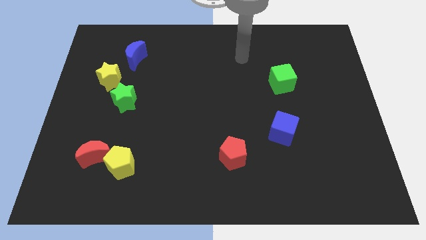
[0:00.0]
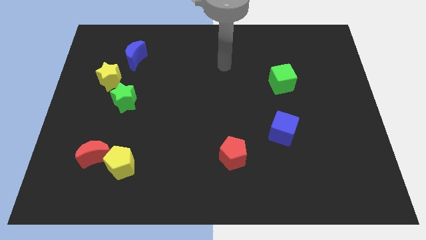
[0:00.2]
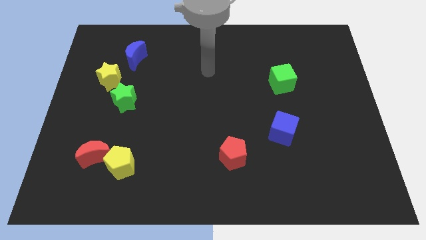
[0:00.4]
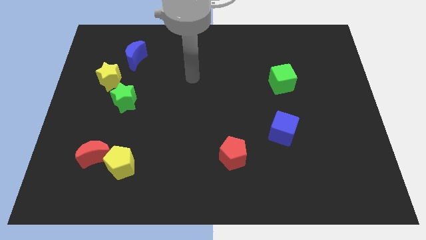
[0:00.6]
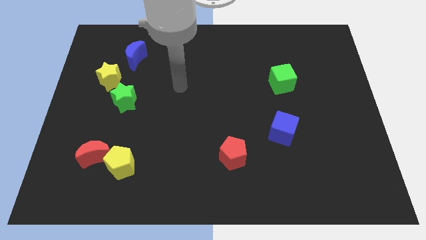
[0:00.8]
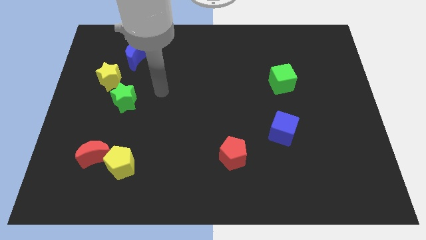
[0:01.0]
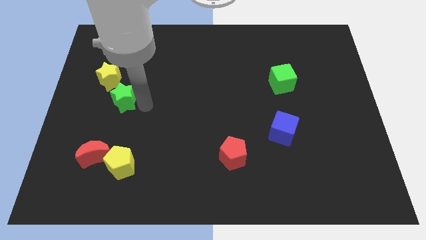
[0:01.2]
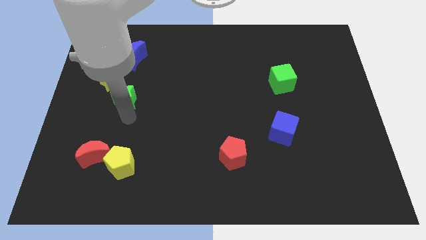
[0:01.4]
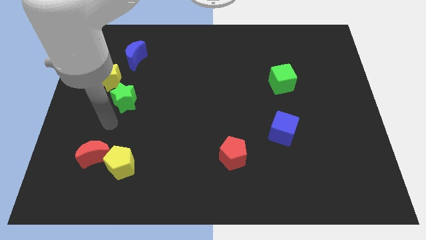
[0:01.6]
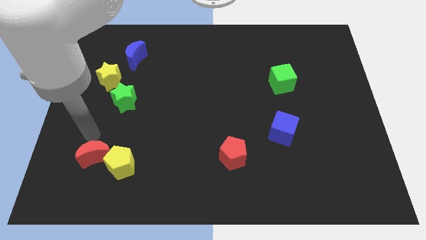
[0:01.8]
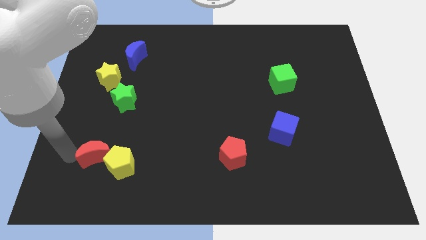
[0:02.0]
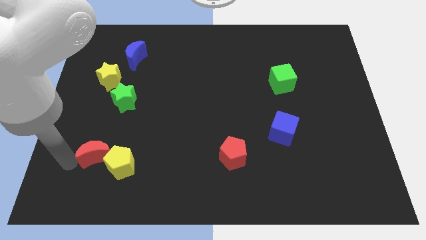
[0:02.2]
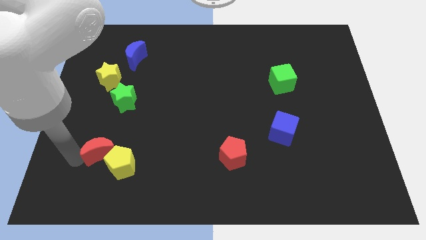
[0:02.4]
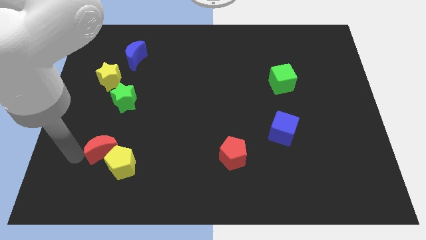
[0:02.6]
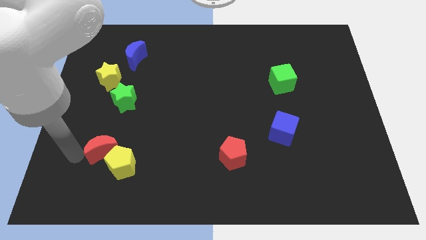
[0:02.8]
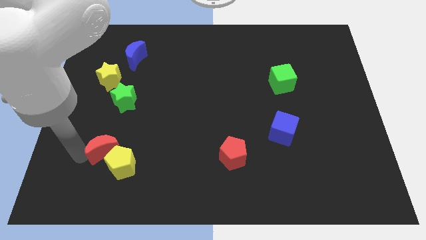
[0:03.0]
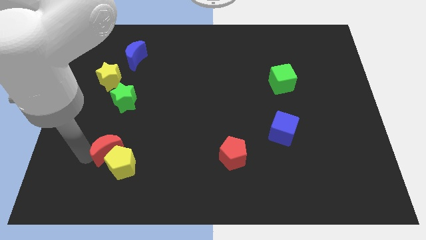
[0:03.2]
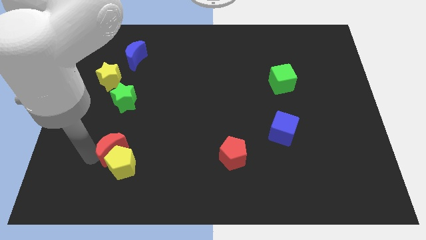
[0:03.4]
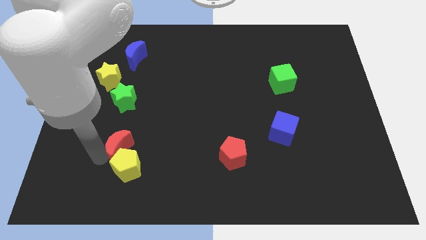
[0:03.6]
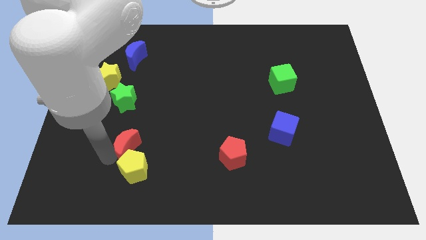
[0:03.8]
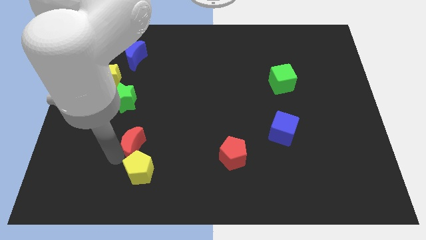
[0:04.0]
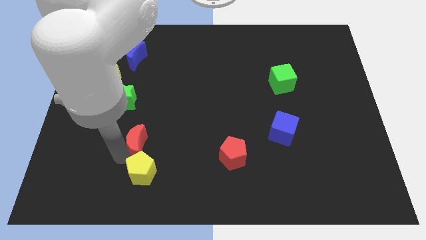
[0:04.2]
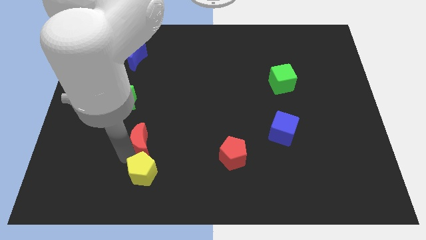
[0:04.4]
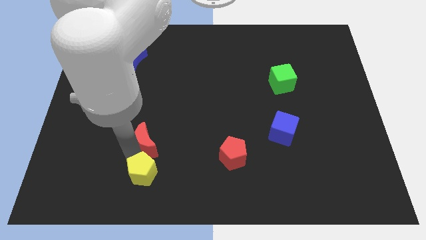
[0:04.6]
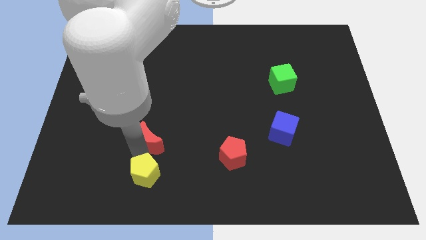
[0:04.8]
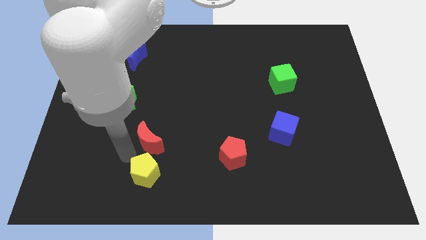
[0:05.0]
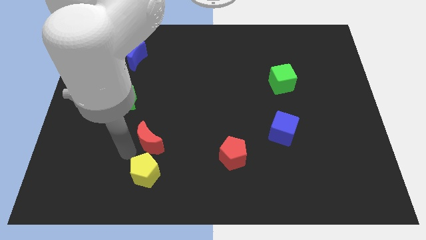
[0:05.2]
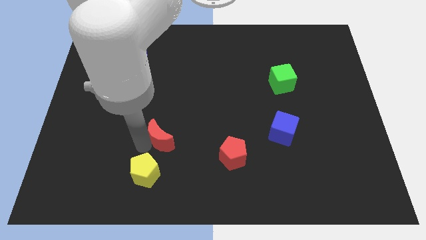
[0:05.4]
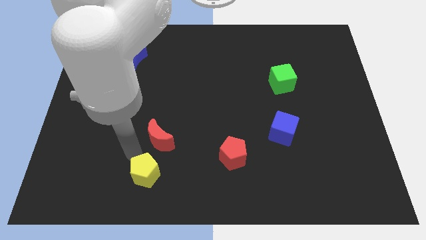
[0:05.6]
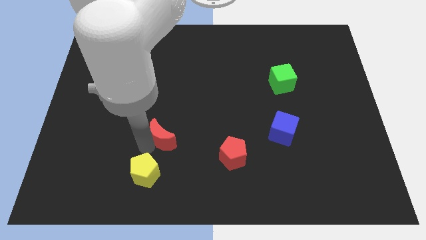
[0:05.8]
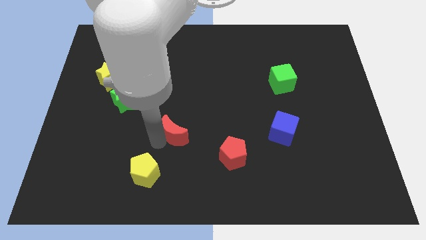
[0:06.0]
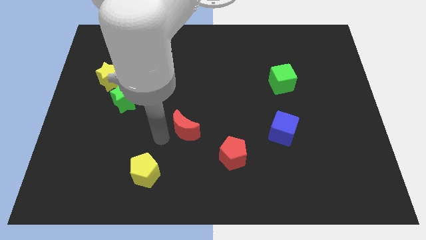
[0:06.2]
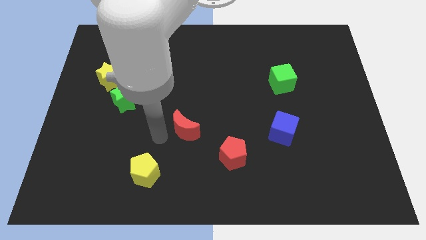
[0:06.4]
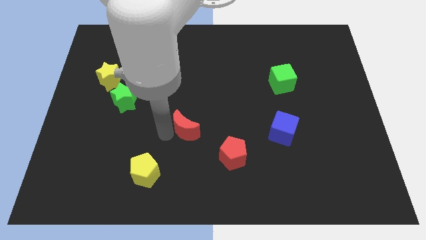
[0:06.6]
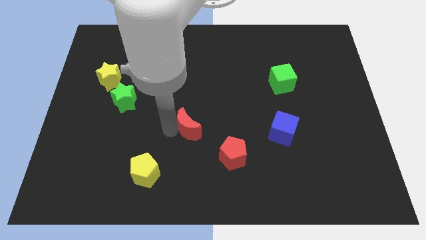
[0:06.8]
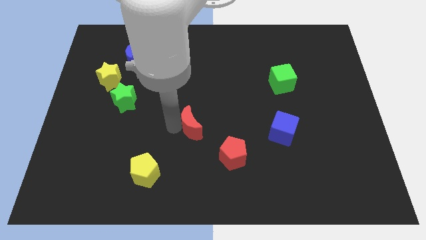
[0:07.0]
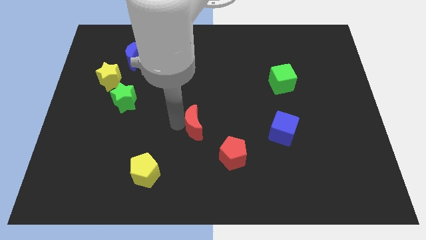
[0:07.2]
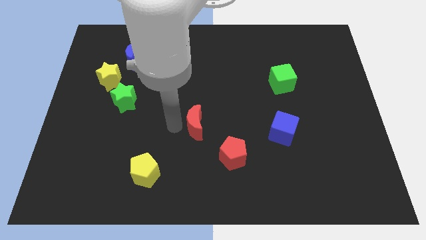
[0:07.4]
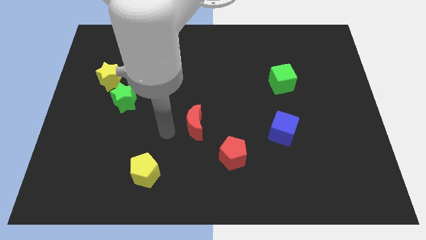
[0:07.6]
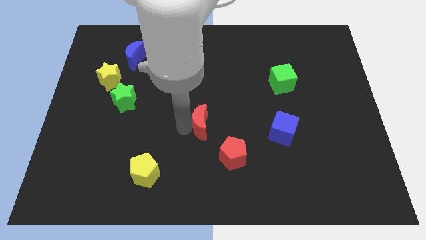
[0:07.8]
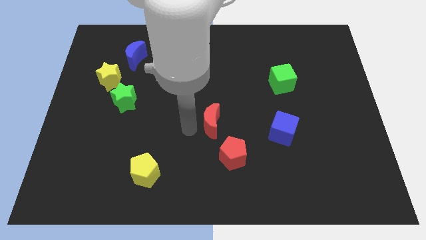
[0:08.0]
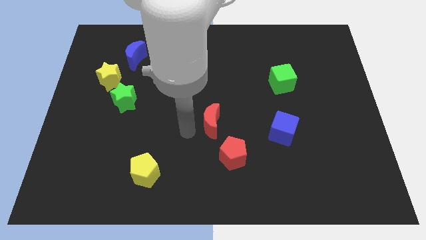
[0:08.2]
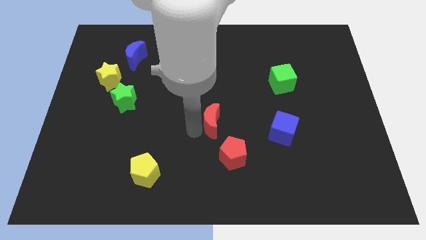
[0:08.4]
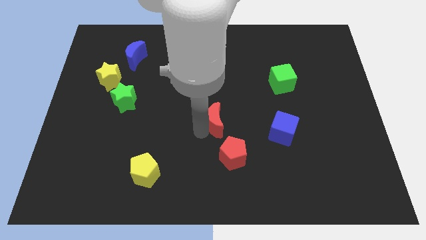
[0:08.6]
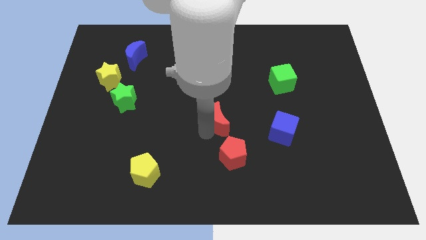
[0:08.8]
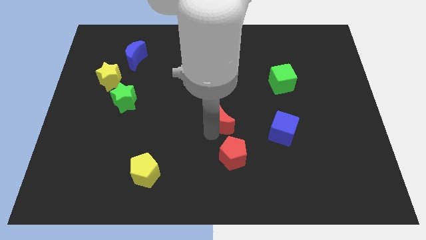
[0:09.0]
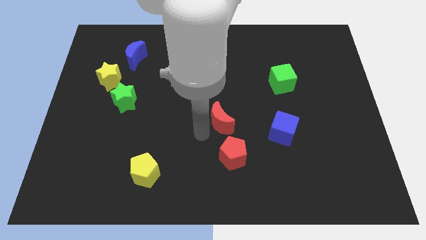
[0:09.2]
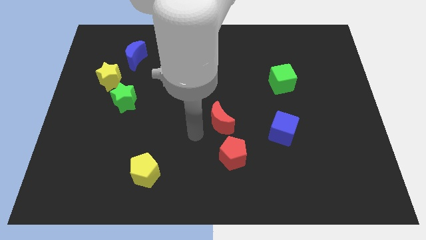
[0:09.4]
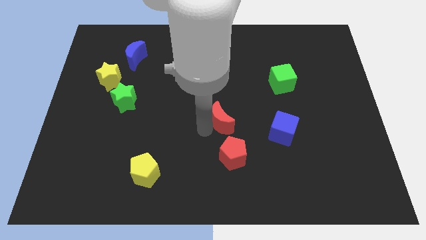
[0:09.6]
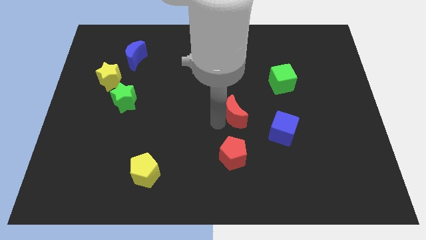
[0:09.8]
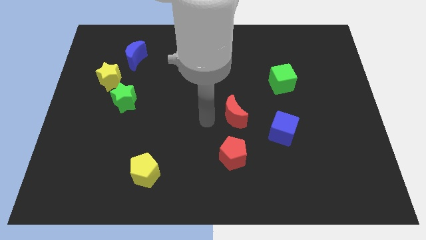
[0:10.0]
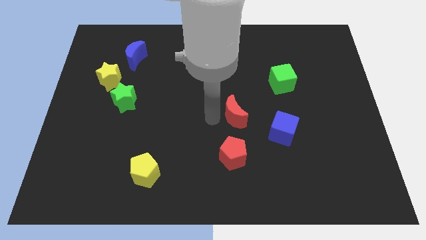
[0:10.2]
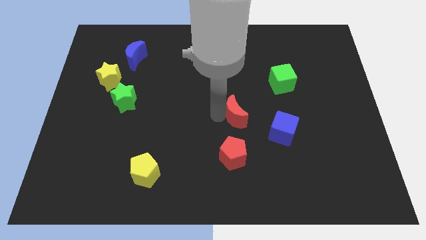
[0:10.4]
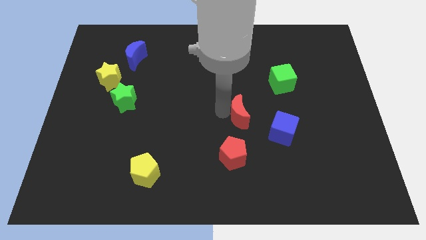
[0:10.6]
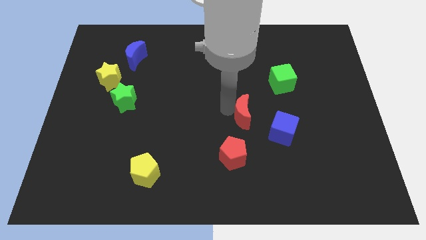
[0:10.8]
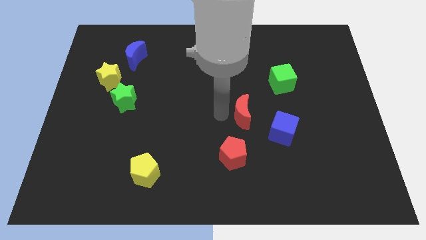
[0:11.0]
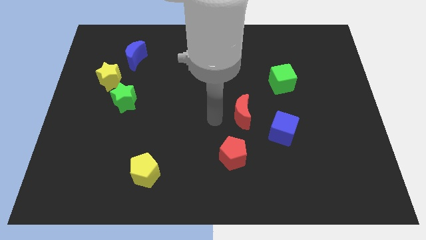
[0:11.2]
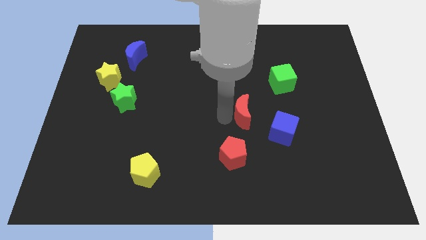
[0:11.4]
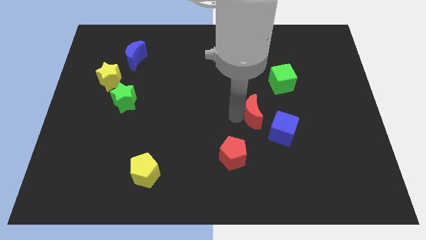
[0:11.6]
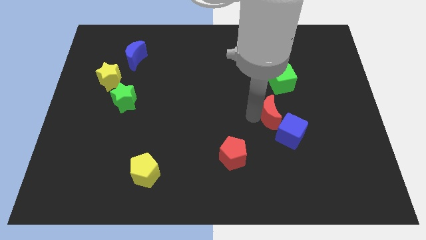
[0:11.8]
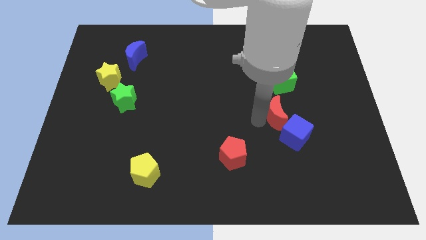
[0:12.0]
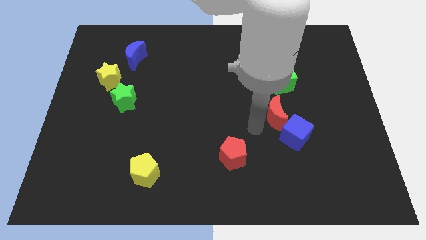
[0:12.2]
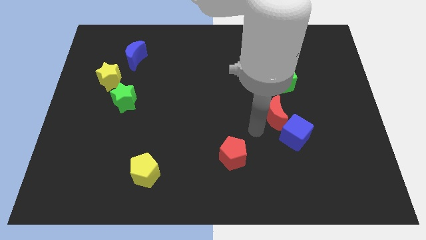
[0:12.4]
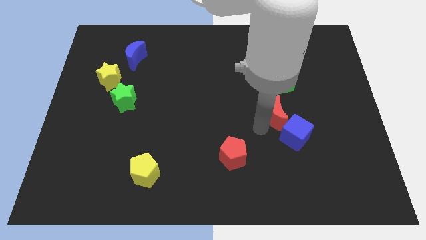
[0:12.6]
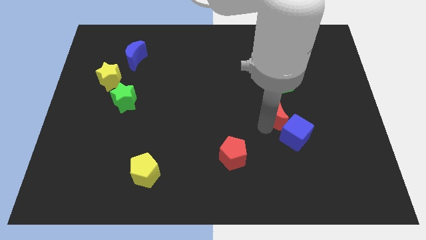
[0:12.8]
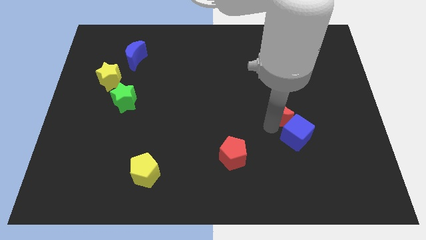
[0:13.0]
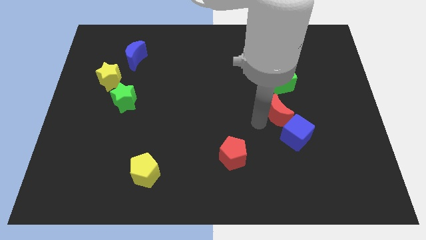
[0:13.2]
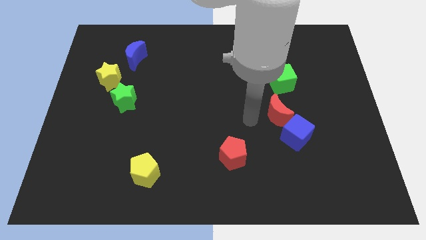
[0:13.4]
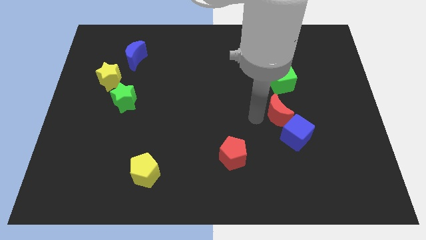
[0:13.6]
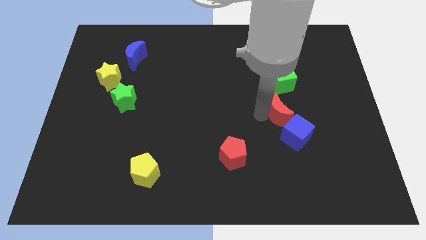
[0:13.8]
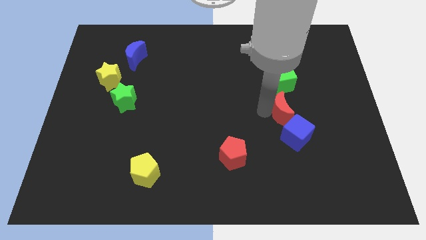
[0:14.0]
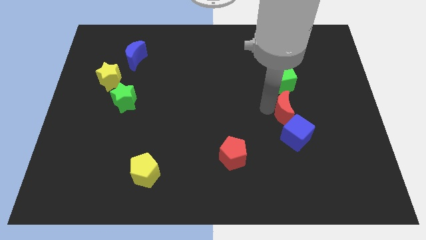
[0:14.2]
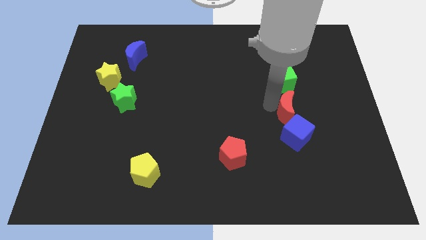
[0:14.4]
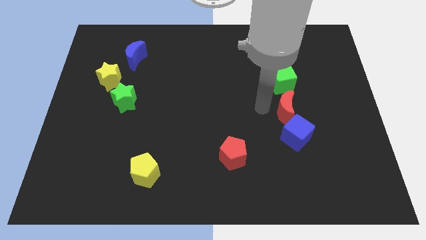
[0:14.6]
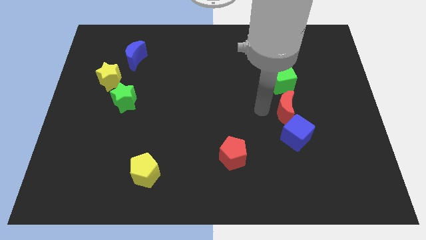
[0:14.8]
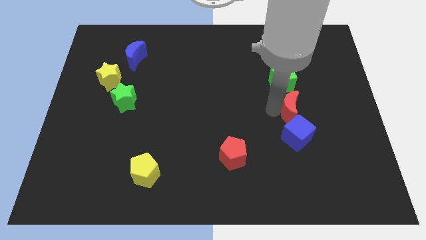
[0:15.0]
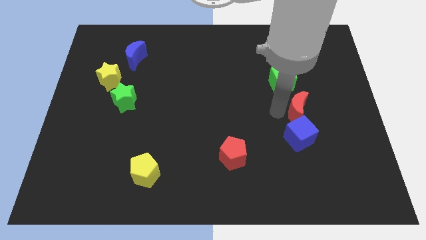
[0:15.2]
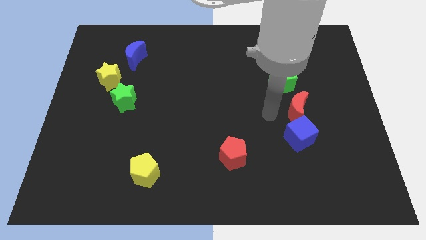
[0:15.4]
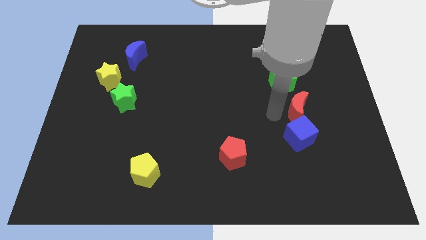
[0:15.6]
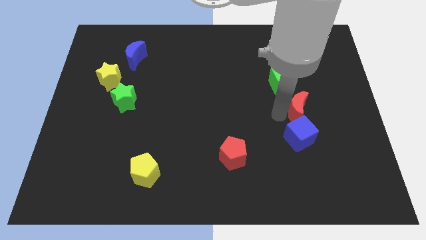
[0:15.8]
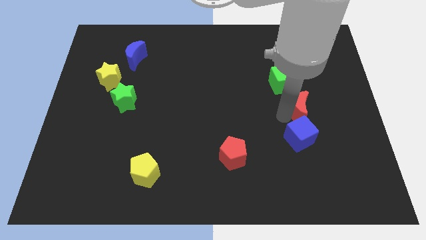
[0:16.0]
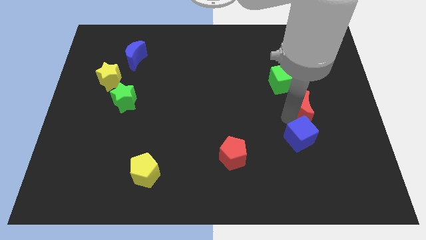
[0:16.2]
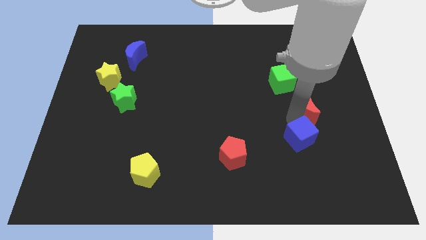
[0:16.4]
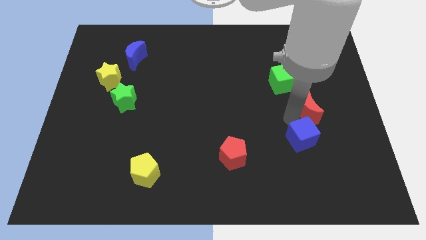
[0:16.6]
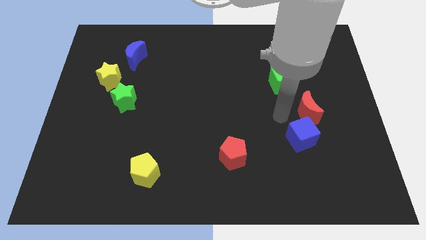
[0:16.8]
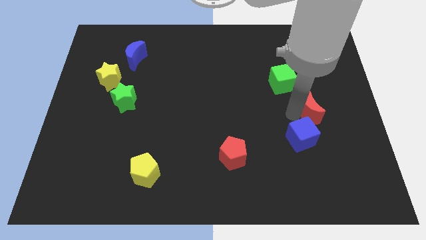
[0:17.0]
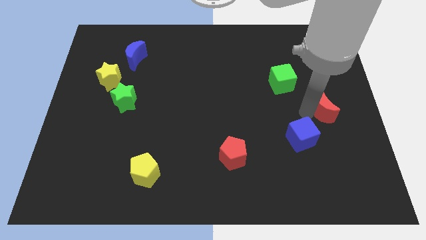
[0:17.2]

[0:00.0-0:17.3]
move the red moon to the right side
